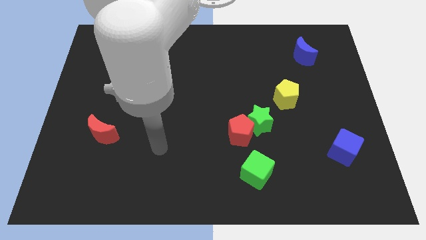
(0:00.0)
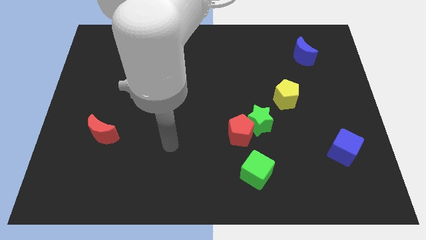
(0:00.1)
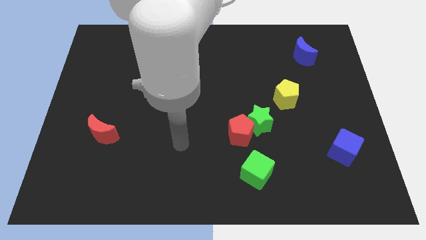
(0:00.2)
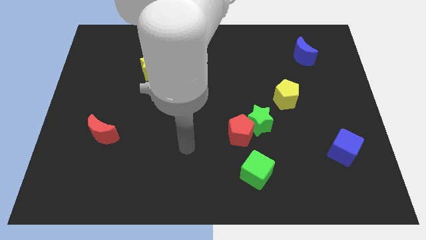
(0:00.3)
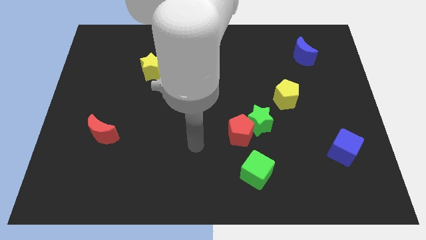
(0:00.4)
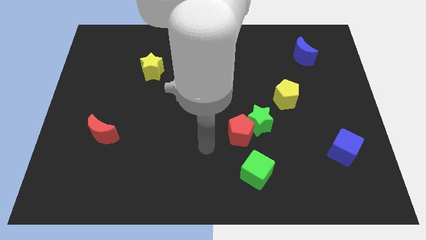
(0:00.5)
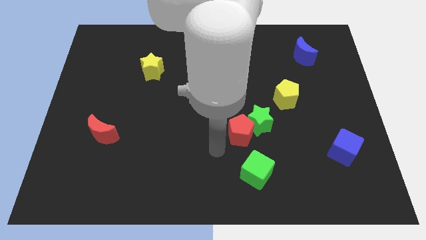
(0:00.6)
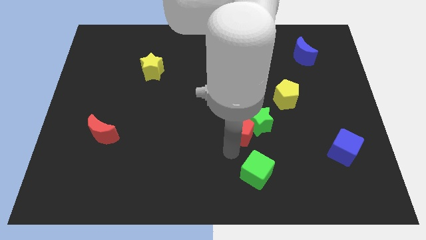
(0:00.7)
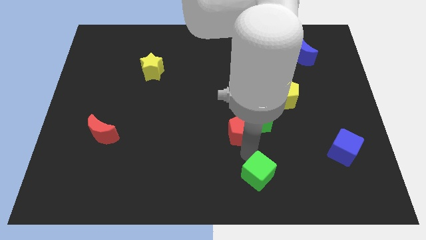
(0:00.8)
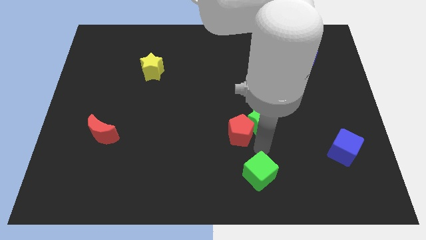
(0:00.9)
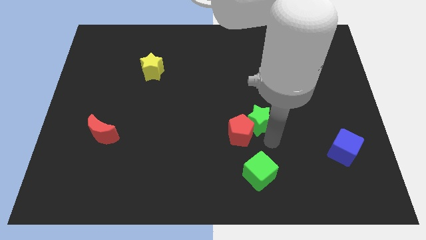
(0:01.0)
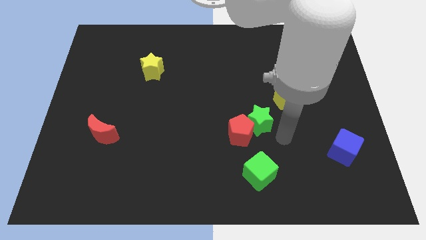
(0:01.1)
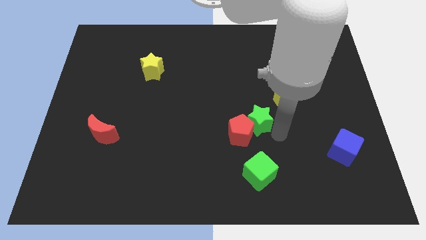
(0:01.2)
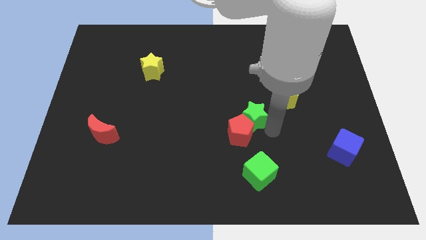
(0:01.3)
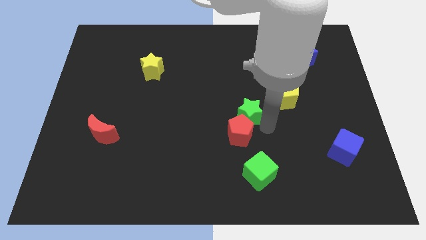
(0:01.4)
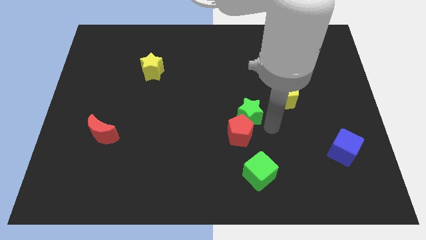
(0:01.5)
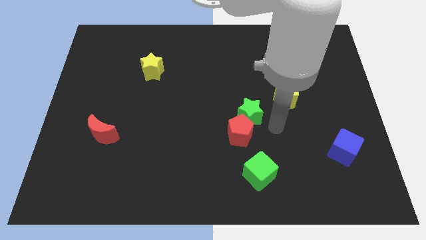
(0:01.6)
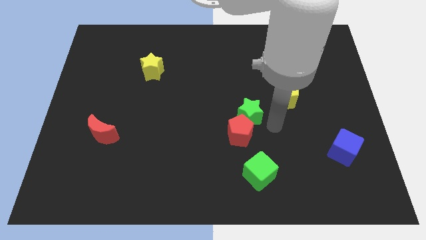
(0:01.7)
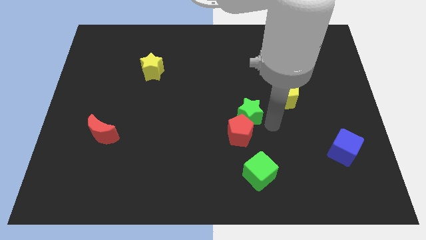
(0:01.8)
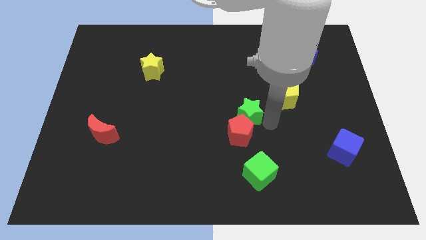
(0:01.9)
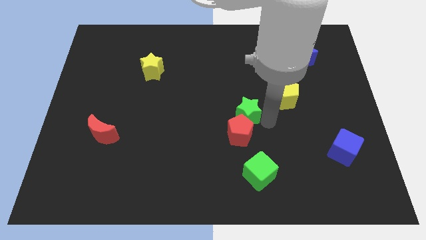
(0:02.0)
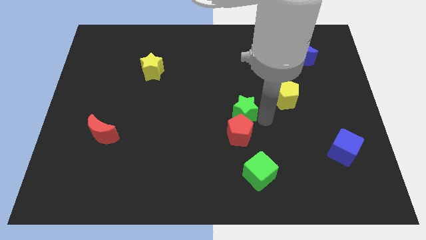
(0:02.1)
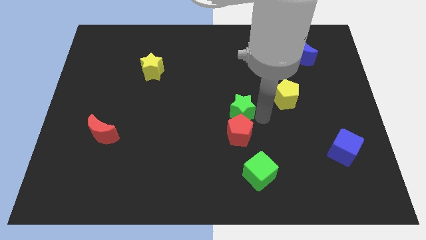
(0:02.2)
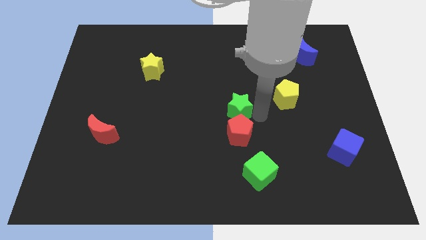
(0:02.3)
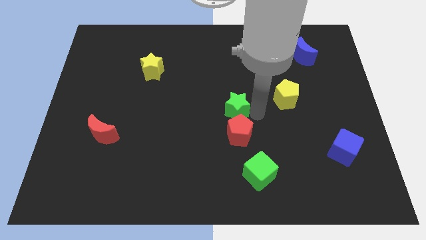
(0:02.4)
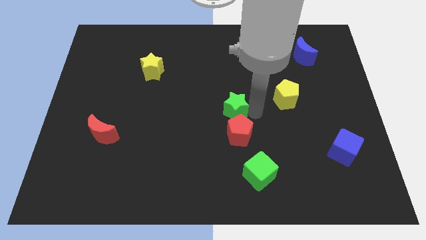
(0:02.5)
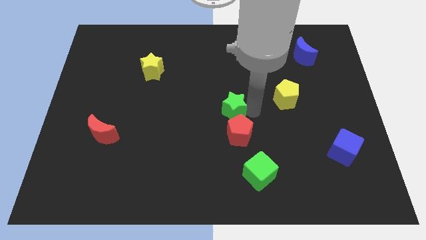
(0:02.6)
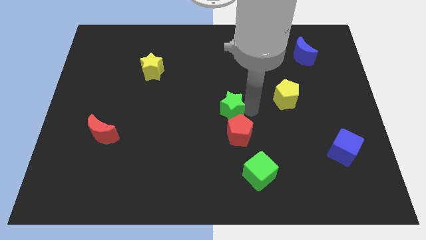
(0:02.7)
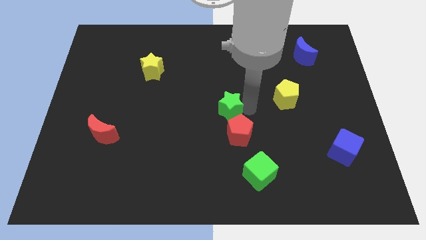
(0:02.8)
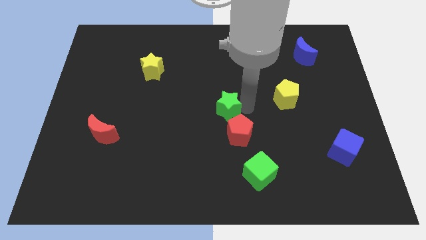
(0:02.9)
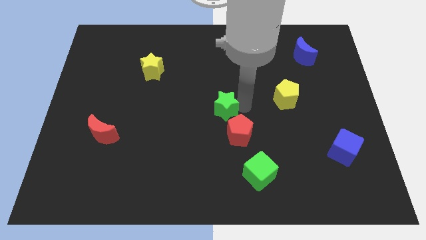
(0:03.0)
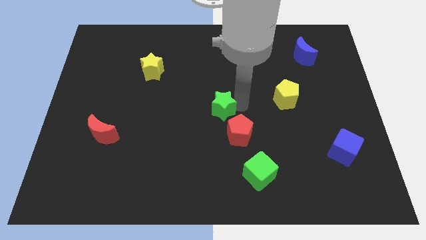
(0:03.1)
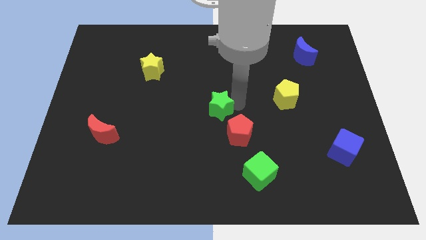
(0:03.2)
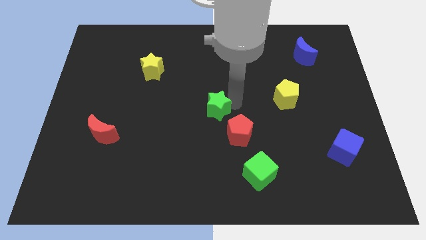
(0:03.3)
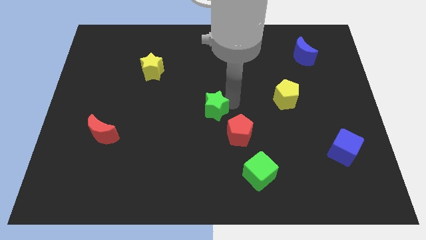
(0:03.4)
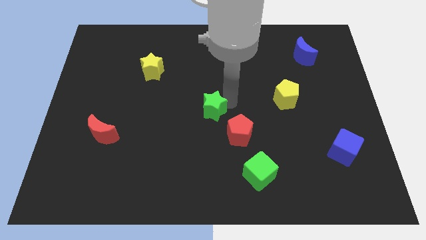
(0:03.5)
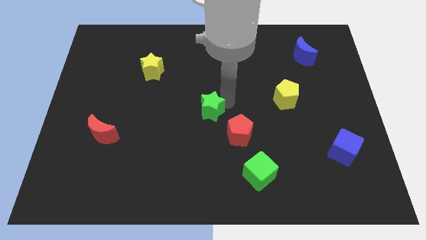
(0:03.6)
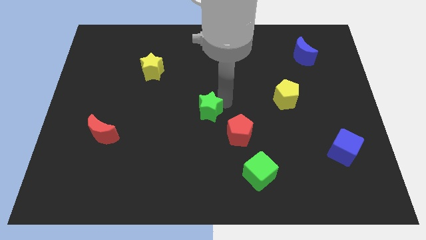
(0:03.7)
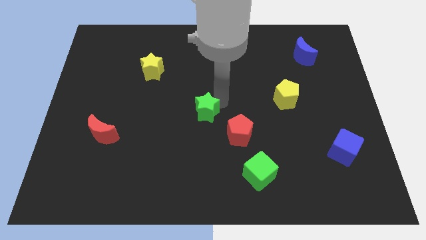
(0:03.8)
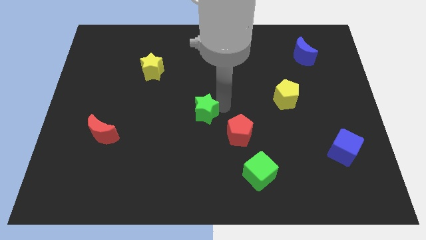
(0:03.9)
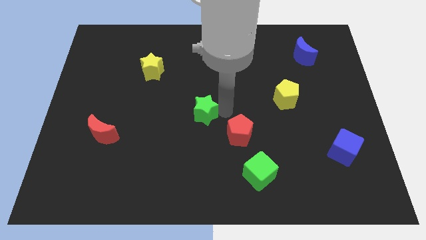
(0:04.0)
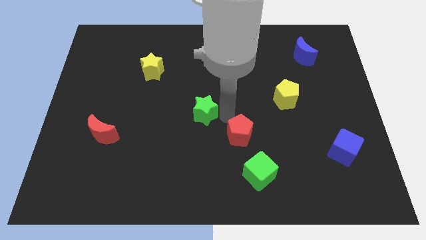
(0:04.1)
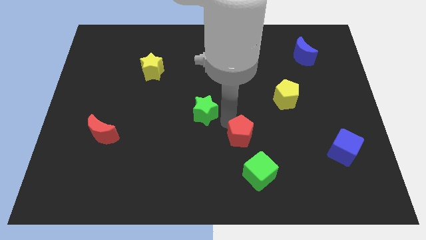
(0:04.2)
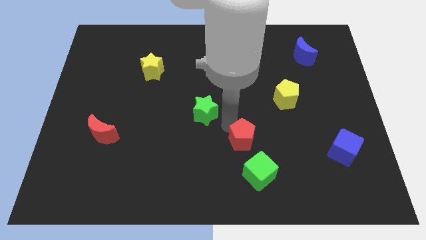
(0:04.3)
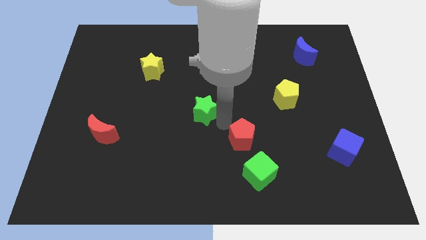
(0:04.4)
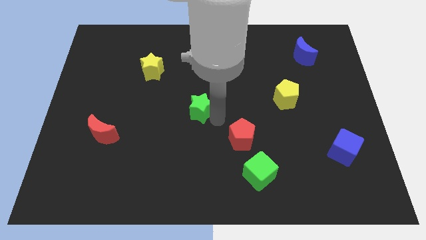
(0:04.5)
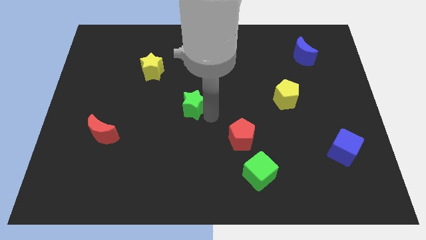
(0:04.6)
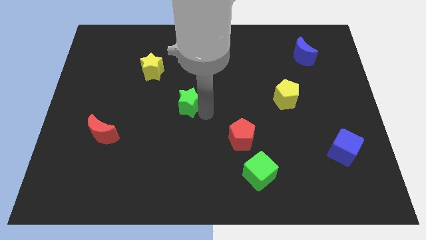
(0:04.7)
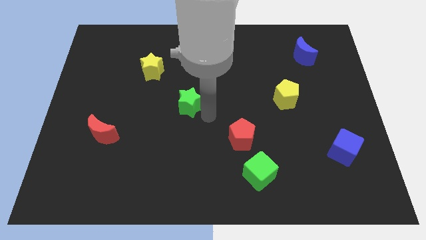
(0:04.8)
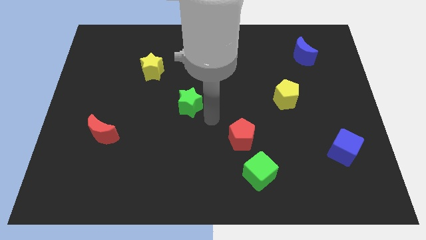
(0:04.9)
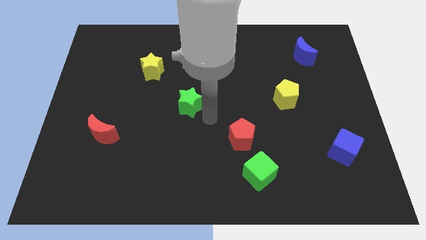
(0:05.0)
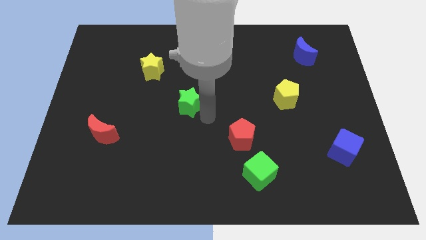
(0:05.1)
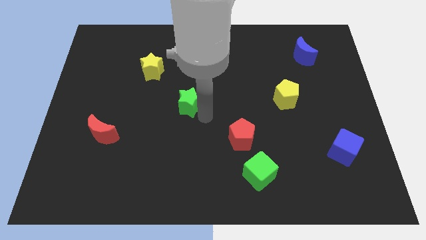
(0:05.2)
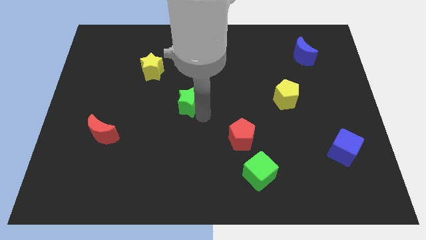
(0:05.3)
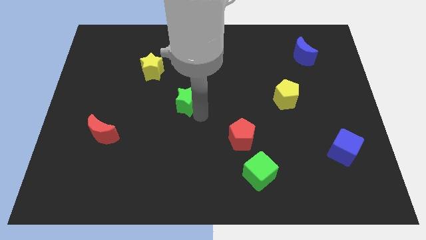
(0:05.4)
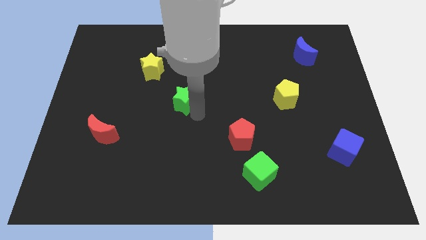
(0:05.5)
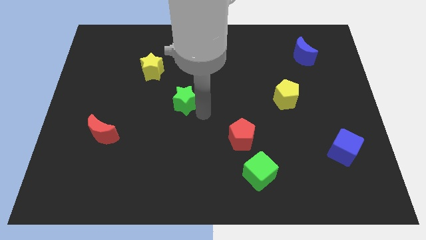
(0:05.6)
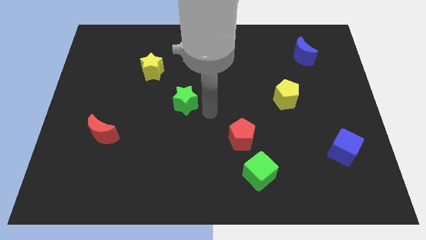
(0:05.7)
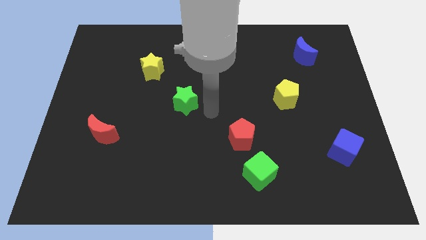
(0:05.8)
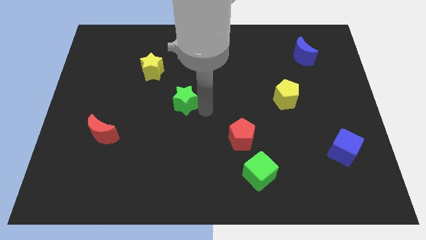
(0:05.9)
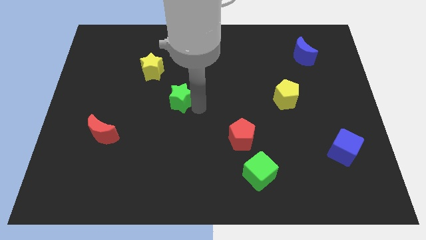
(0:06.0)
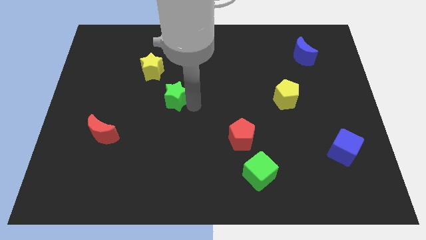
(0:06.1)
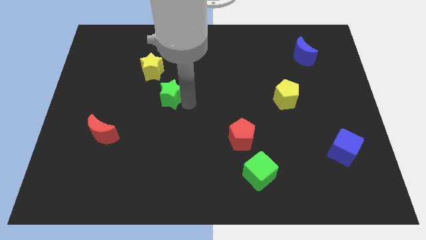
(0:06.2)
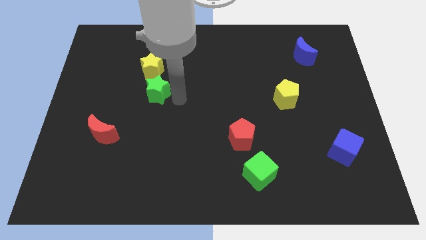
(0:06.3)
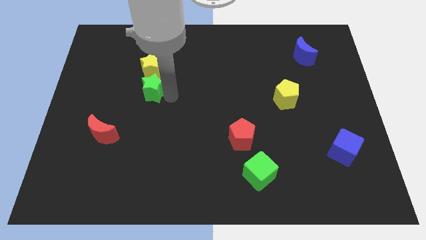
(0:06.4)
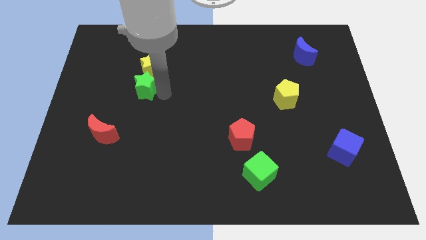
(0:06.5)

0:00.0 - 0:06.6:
slide the green star to the bottom left side of the yellow star
